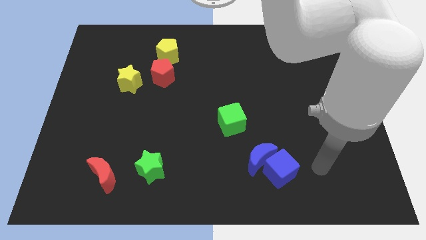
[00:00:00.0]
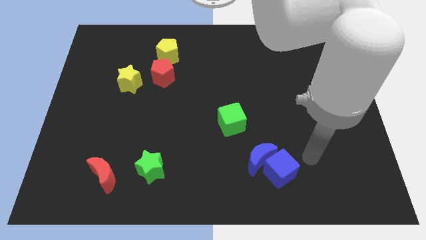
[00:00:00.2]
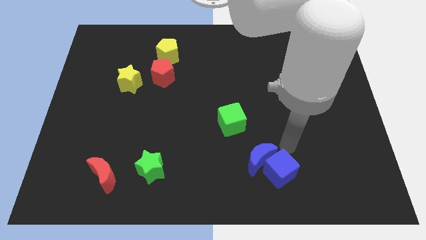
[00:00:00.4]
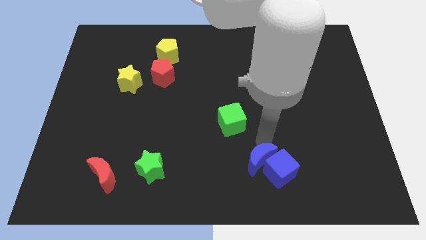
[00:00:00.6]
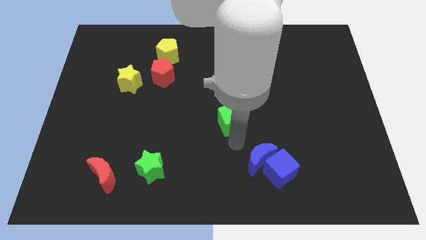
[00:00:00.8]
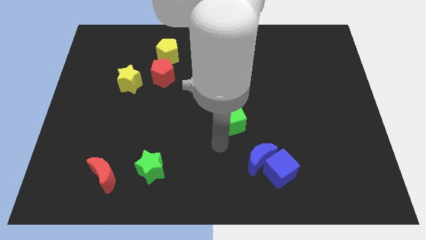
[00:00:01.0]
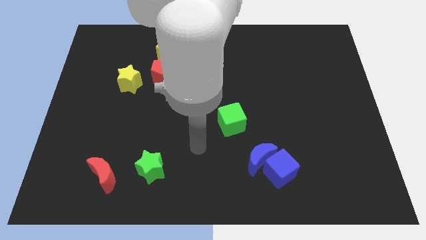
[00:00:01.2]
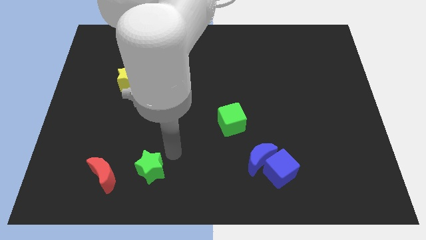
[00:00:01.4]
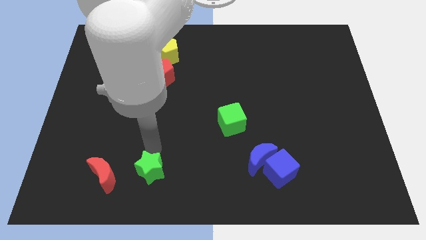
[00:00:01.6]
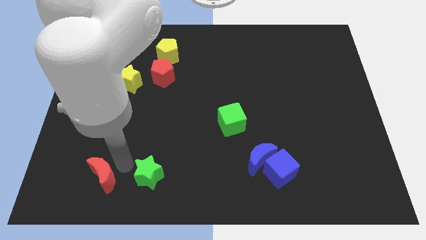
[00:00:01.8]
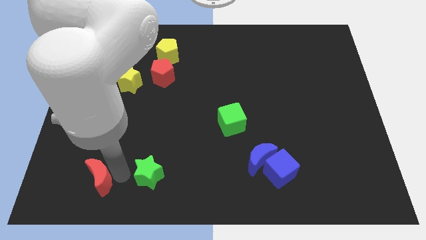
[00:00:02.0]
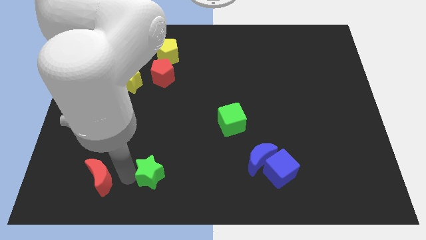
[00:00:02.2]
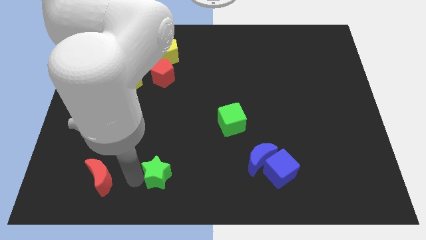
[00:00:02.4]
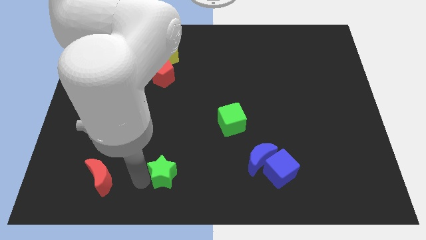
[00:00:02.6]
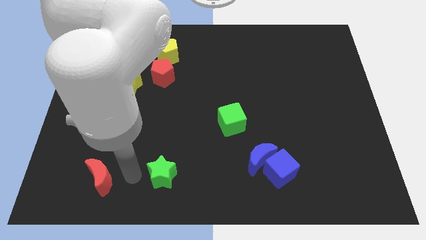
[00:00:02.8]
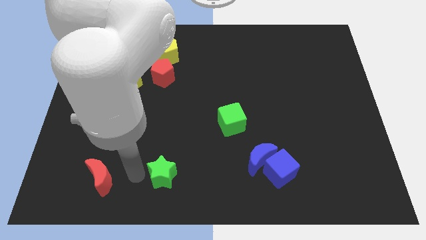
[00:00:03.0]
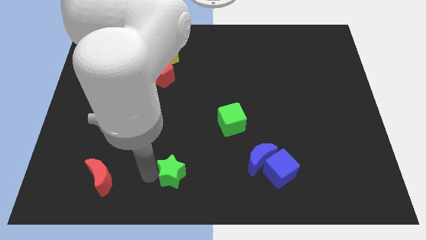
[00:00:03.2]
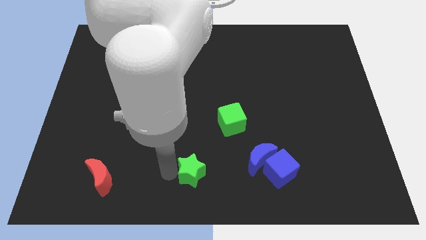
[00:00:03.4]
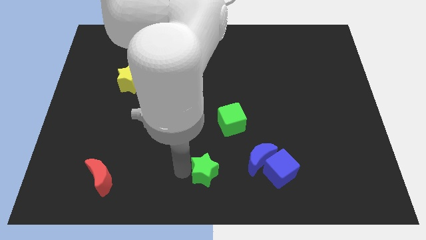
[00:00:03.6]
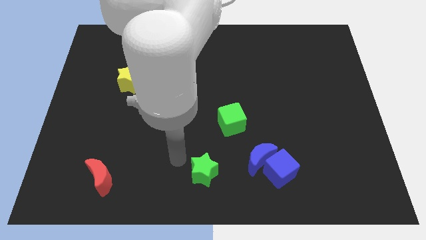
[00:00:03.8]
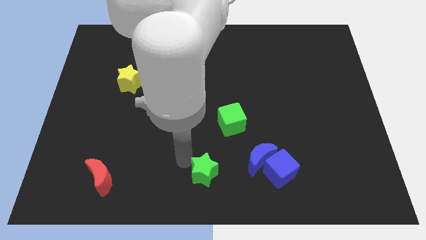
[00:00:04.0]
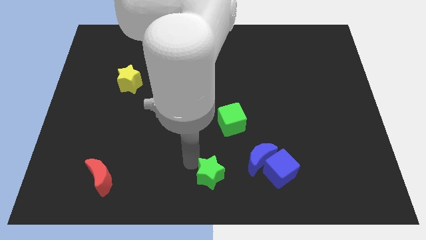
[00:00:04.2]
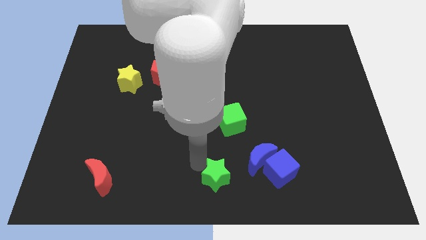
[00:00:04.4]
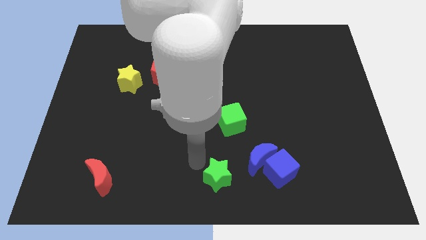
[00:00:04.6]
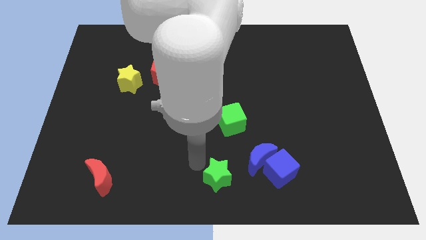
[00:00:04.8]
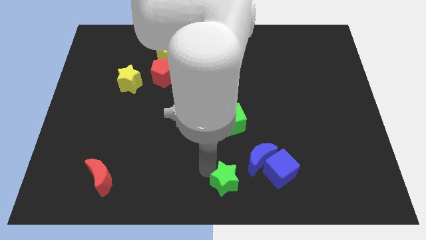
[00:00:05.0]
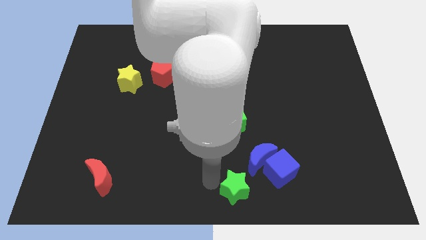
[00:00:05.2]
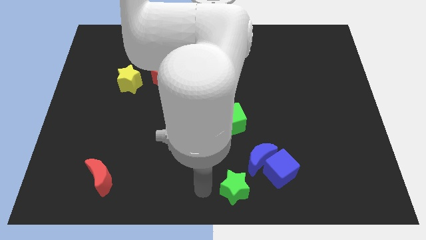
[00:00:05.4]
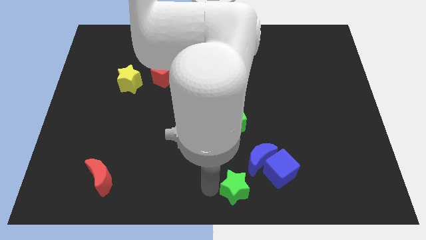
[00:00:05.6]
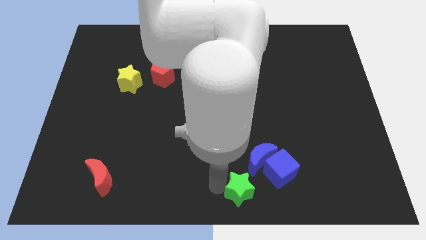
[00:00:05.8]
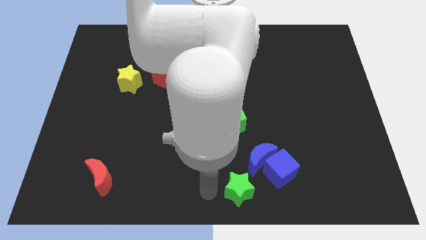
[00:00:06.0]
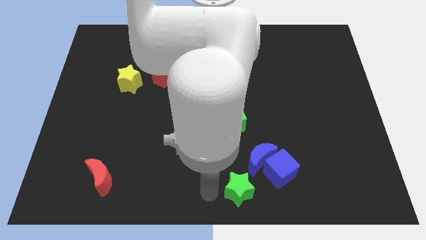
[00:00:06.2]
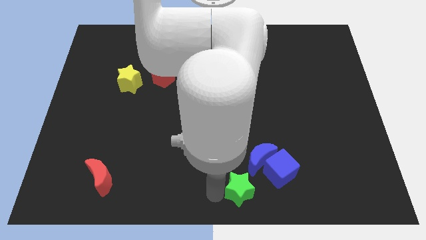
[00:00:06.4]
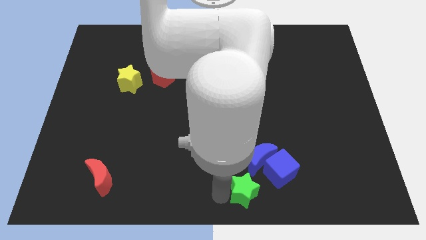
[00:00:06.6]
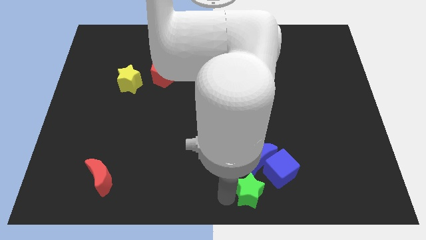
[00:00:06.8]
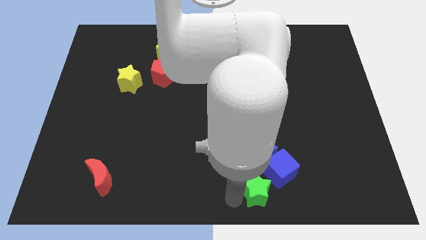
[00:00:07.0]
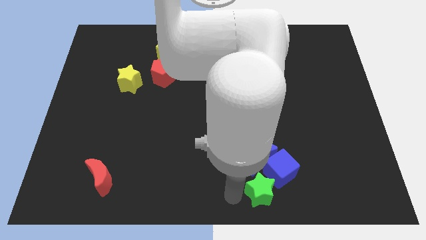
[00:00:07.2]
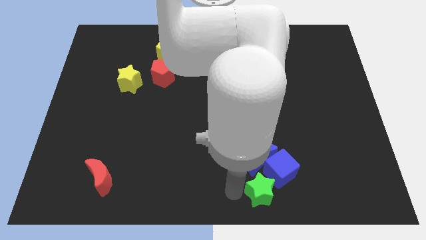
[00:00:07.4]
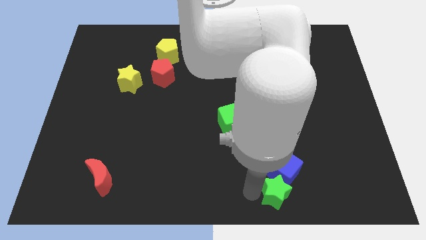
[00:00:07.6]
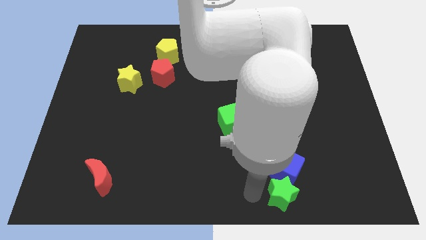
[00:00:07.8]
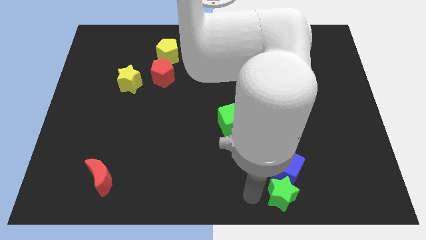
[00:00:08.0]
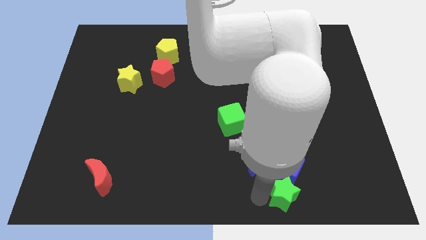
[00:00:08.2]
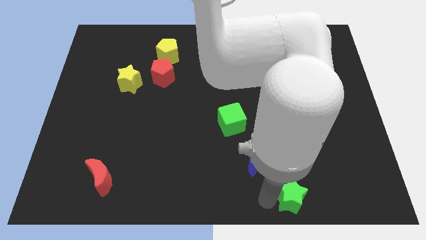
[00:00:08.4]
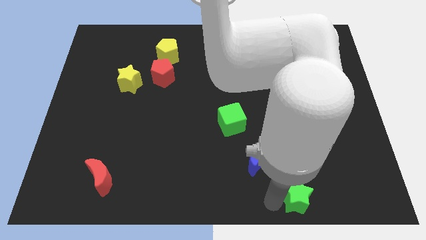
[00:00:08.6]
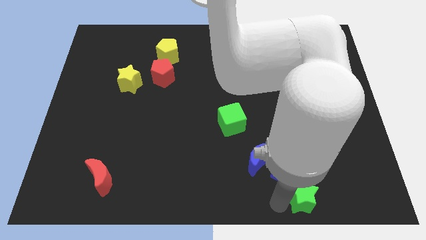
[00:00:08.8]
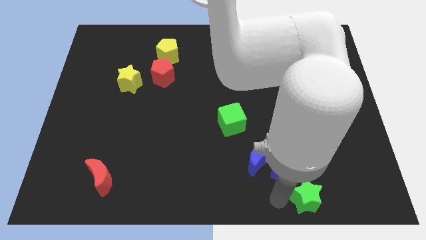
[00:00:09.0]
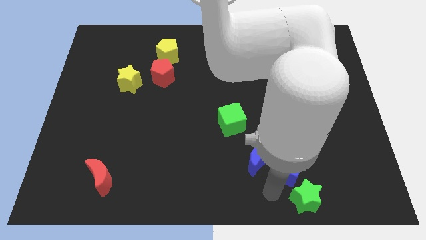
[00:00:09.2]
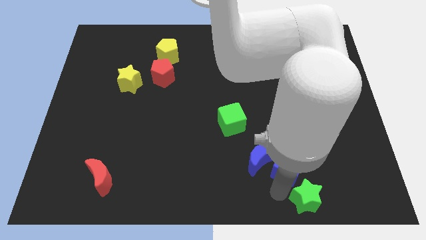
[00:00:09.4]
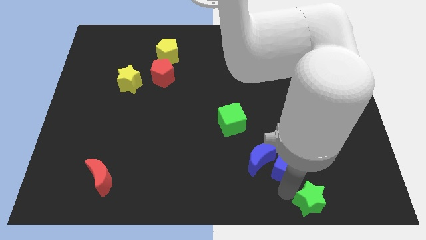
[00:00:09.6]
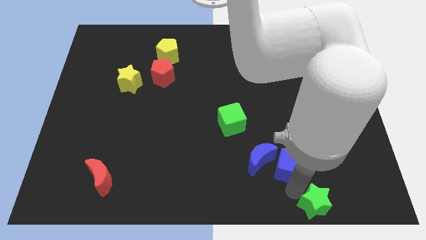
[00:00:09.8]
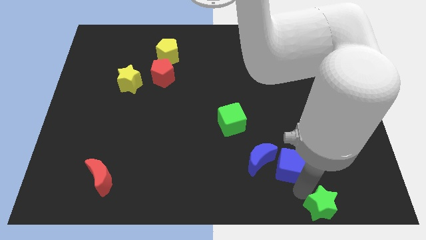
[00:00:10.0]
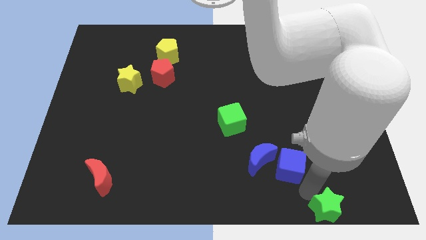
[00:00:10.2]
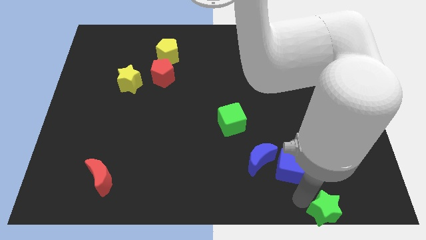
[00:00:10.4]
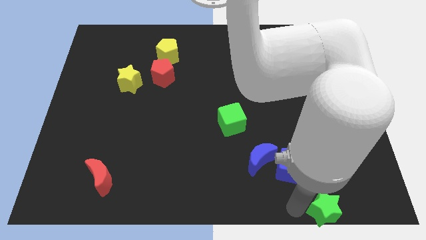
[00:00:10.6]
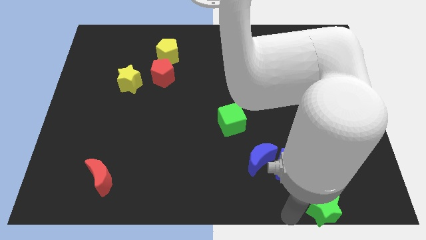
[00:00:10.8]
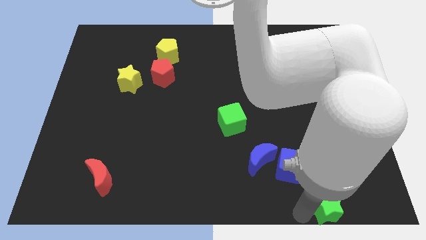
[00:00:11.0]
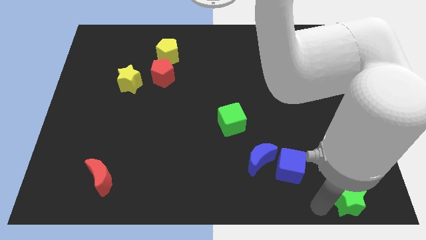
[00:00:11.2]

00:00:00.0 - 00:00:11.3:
slide the green star to the lower right corner
